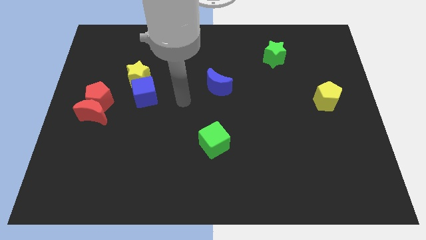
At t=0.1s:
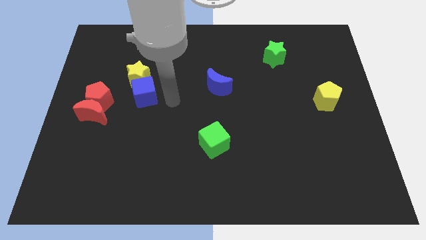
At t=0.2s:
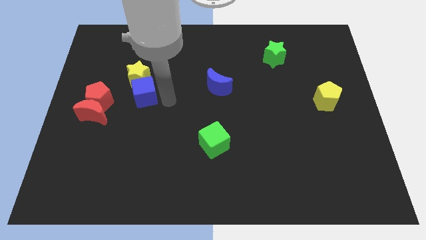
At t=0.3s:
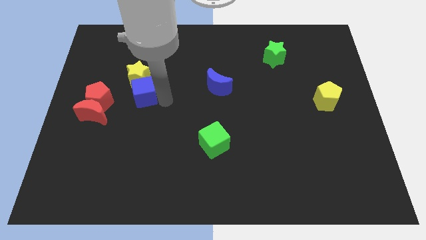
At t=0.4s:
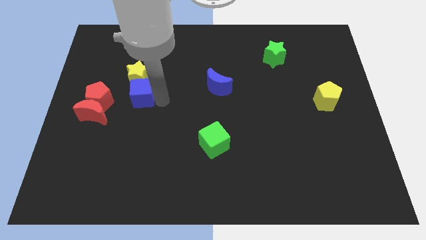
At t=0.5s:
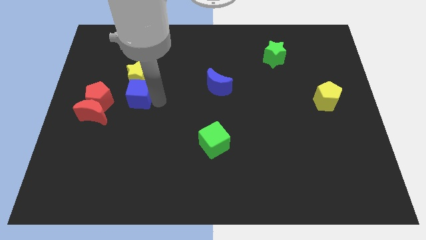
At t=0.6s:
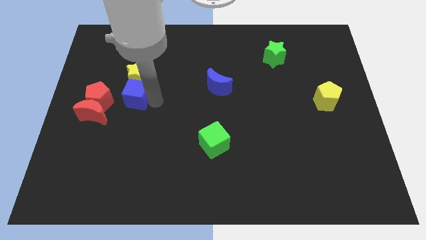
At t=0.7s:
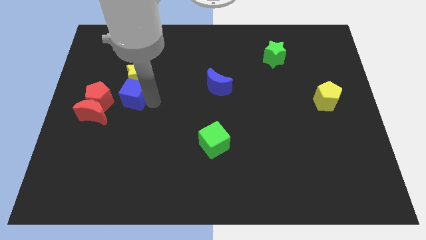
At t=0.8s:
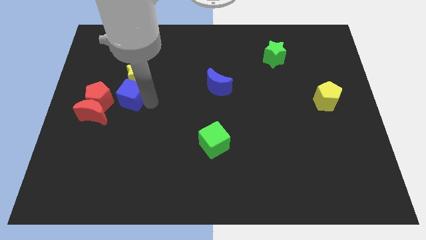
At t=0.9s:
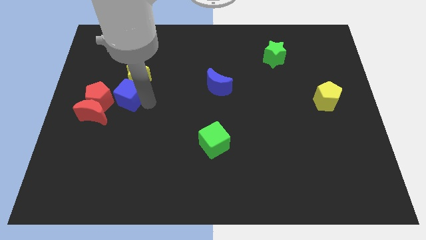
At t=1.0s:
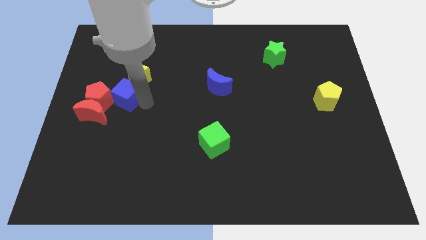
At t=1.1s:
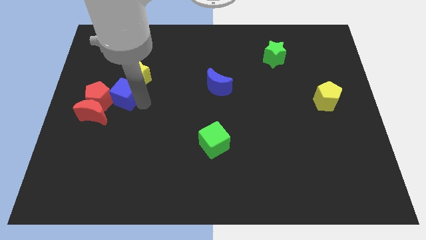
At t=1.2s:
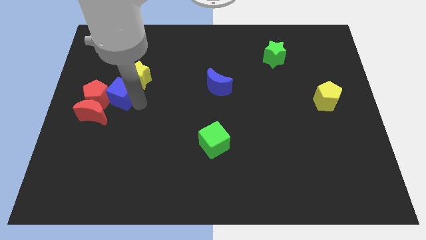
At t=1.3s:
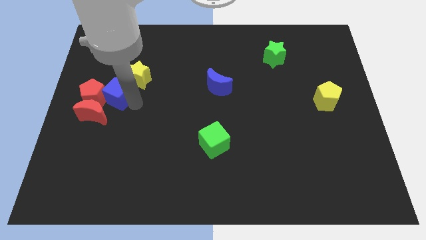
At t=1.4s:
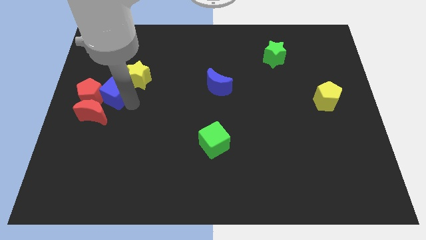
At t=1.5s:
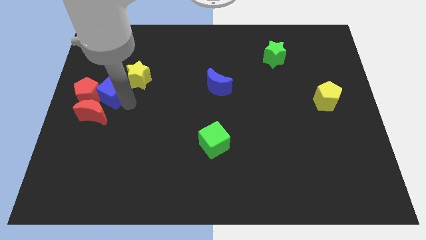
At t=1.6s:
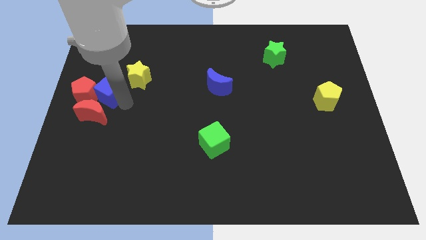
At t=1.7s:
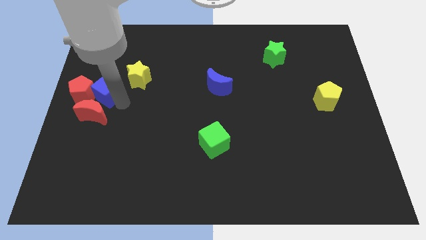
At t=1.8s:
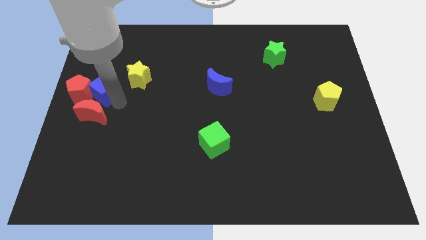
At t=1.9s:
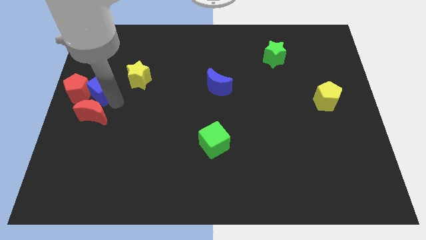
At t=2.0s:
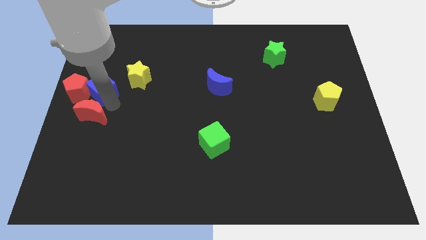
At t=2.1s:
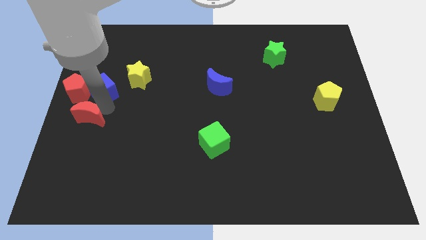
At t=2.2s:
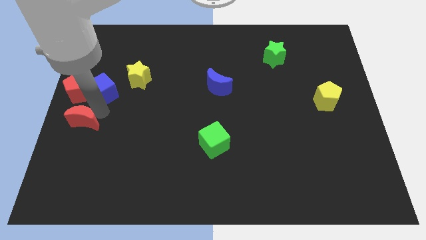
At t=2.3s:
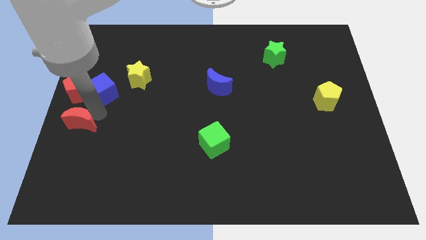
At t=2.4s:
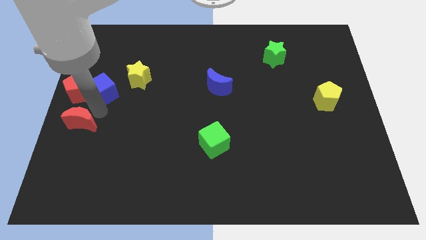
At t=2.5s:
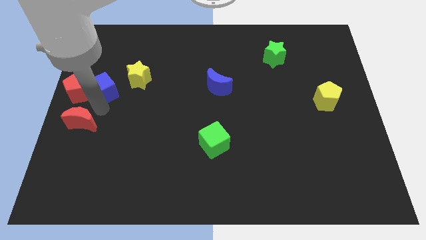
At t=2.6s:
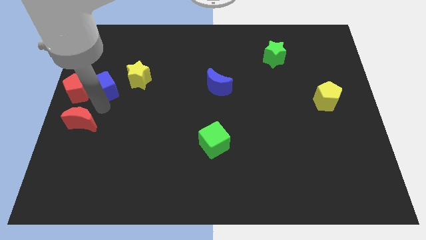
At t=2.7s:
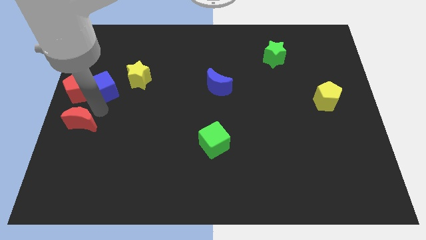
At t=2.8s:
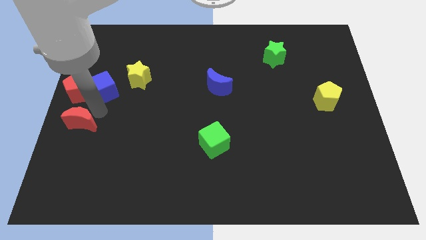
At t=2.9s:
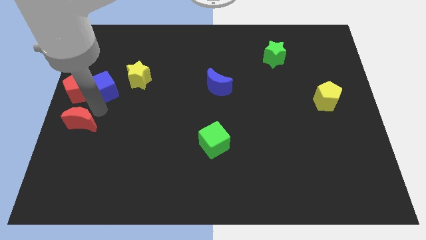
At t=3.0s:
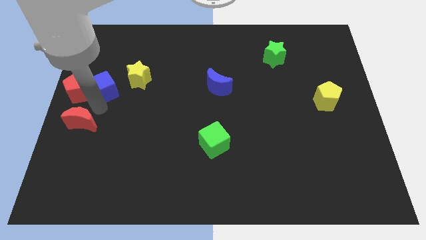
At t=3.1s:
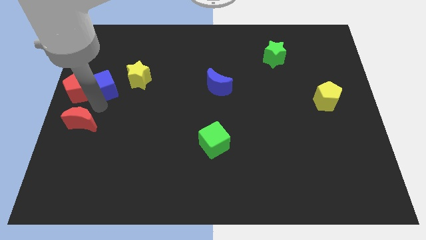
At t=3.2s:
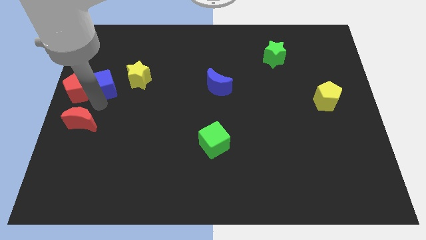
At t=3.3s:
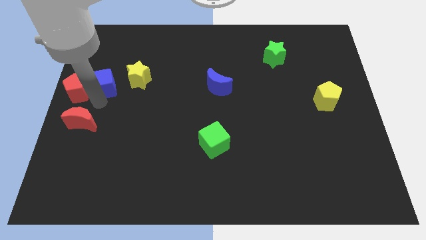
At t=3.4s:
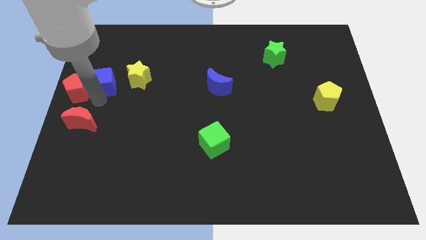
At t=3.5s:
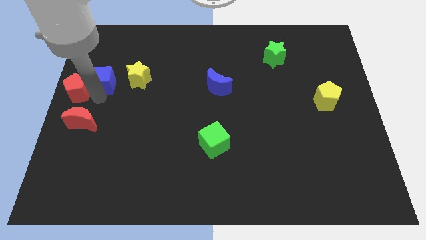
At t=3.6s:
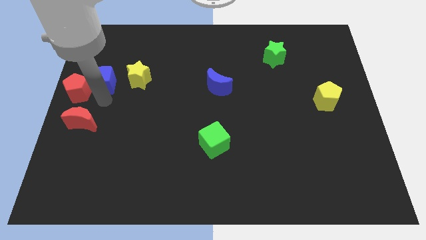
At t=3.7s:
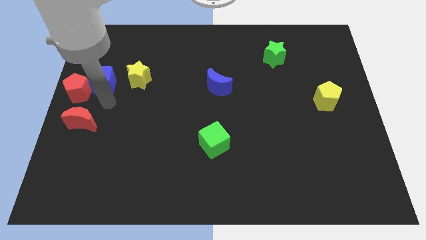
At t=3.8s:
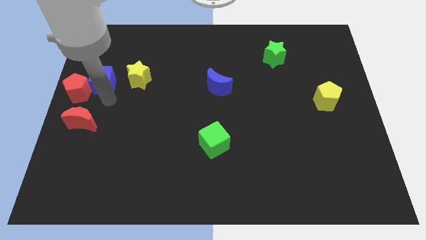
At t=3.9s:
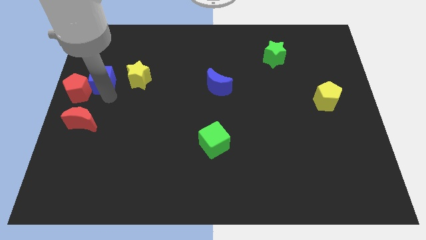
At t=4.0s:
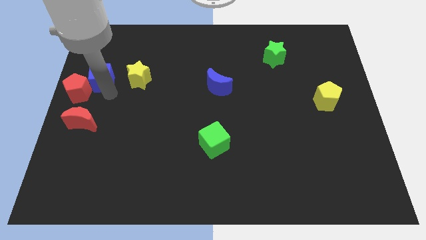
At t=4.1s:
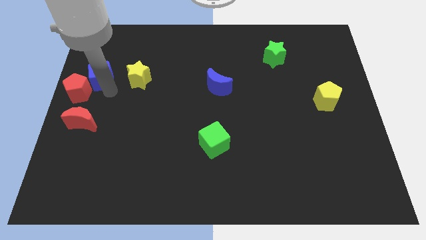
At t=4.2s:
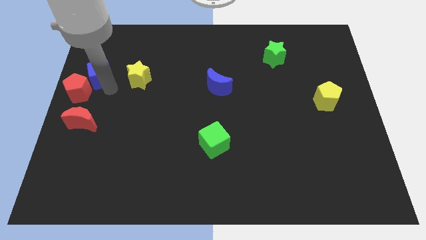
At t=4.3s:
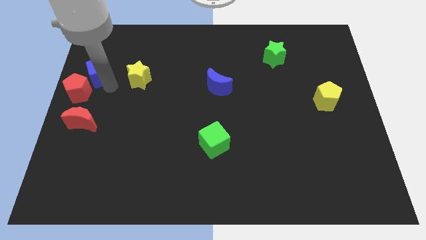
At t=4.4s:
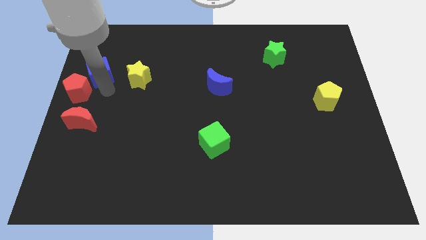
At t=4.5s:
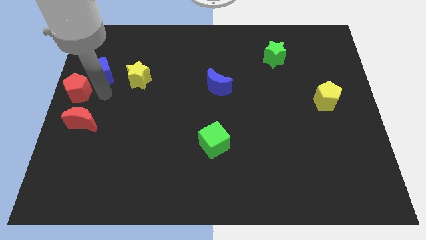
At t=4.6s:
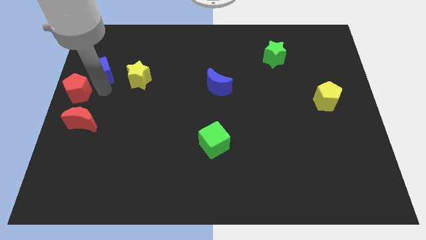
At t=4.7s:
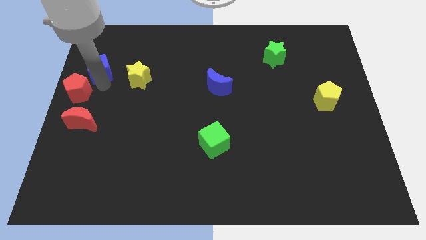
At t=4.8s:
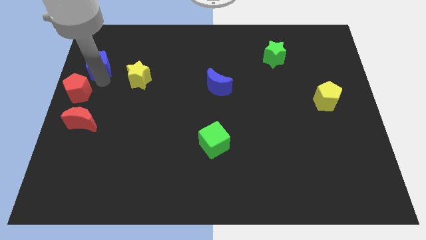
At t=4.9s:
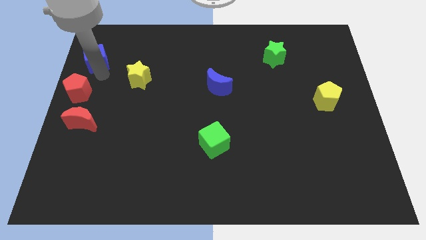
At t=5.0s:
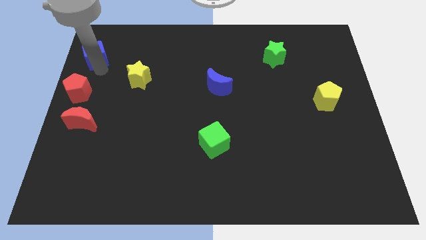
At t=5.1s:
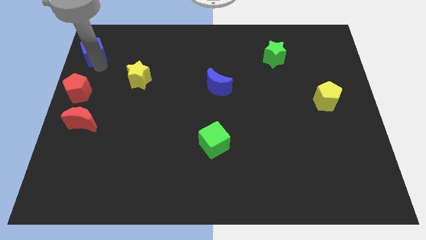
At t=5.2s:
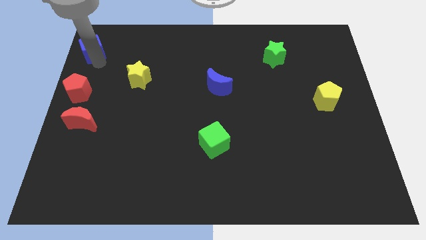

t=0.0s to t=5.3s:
slide the blue cube to the upper left corner

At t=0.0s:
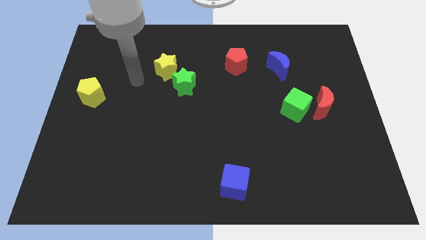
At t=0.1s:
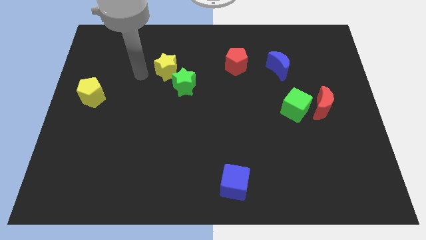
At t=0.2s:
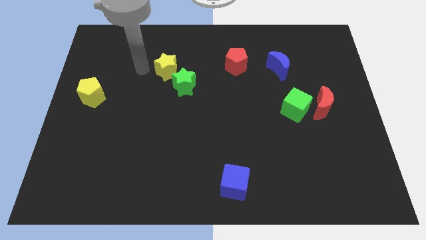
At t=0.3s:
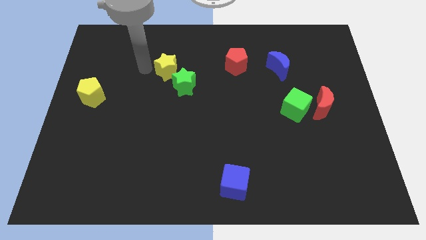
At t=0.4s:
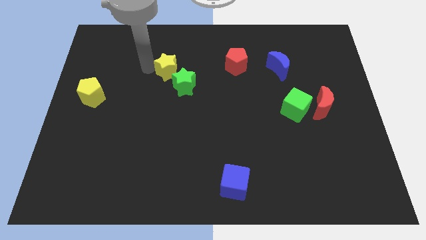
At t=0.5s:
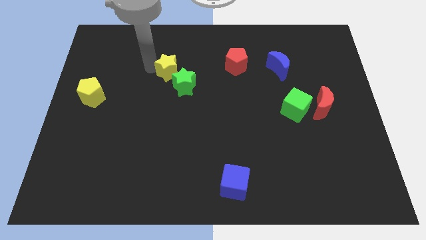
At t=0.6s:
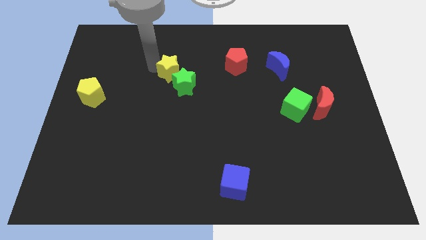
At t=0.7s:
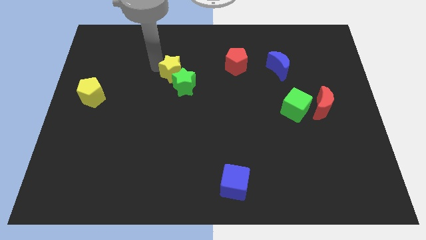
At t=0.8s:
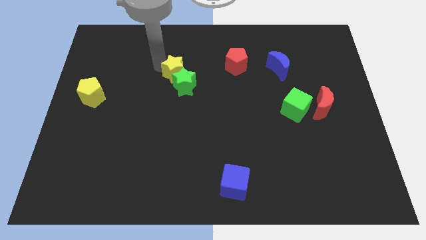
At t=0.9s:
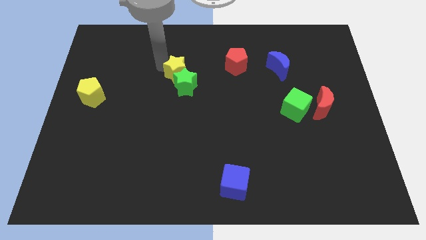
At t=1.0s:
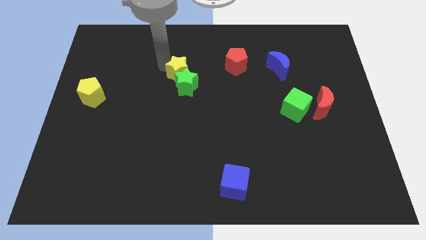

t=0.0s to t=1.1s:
push the yellow star to the center
